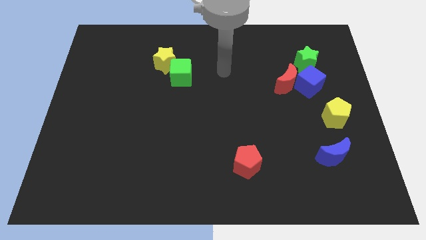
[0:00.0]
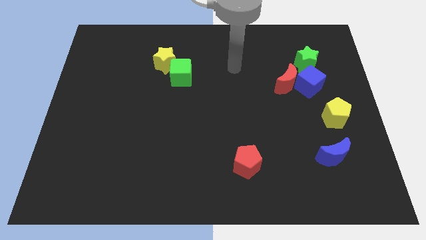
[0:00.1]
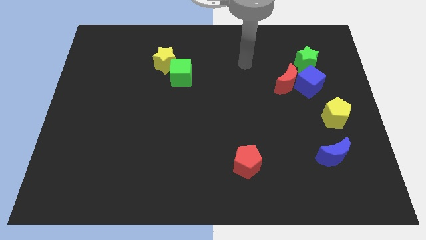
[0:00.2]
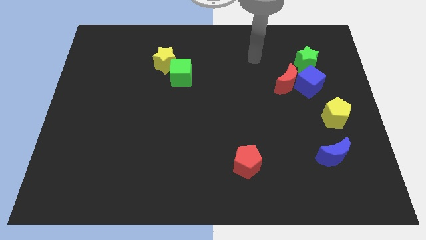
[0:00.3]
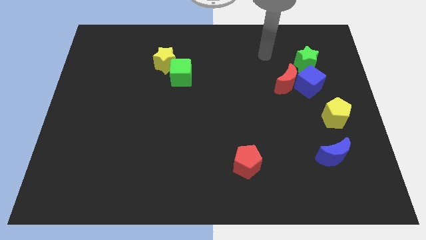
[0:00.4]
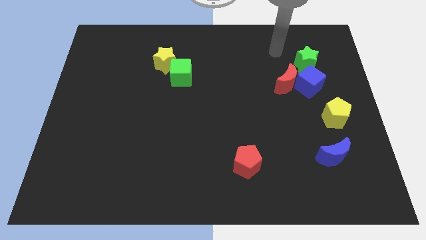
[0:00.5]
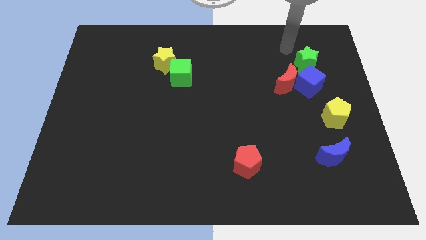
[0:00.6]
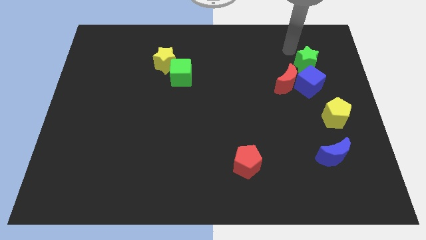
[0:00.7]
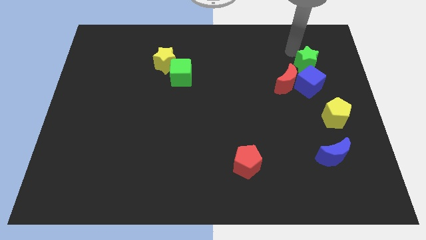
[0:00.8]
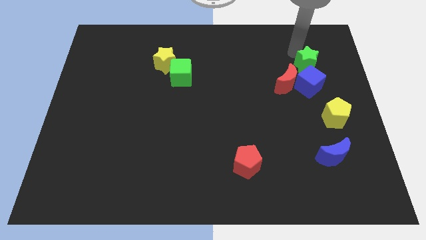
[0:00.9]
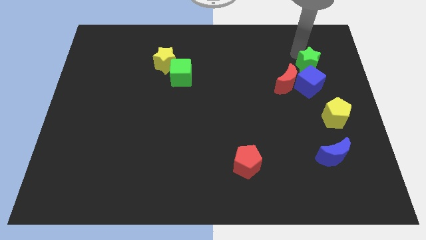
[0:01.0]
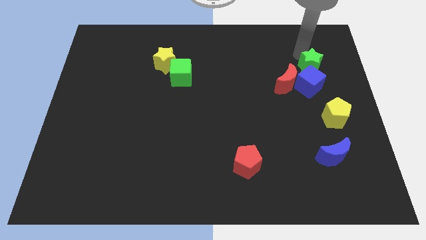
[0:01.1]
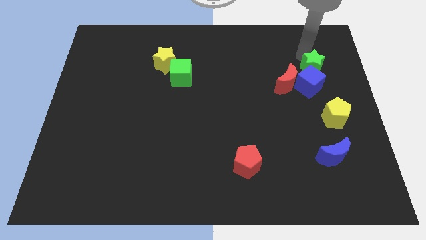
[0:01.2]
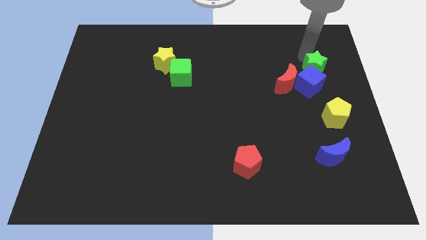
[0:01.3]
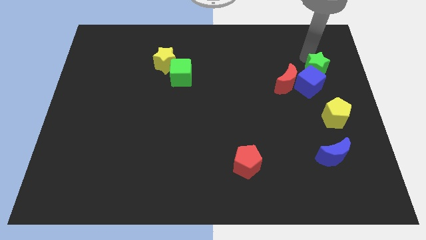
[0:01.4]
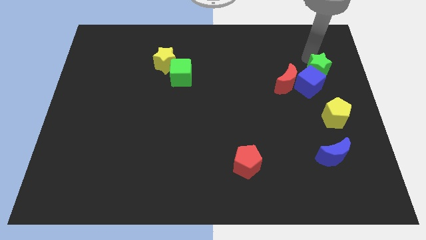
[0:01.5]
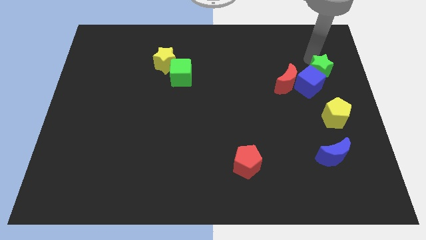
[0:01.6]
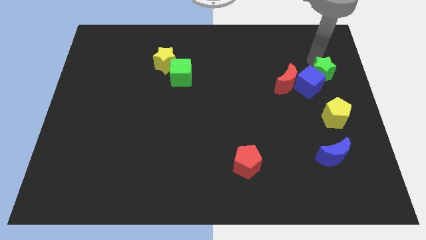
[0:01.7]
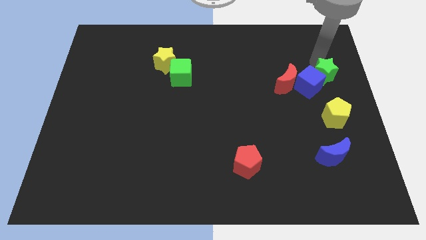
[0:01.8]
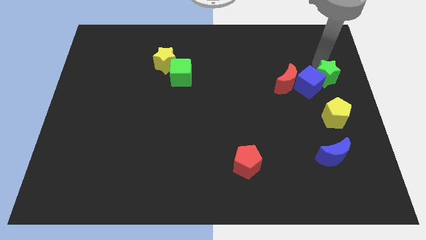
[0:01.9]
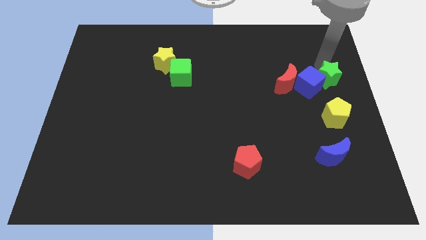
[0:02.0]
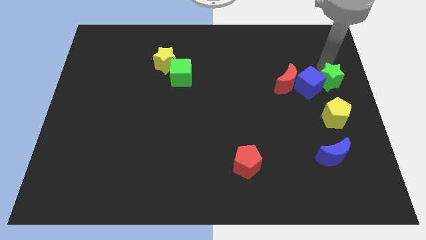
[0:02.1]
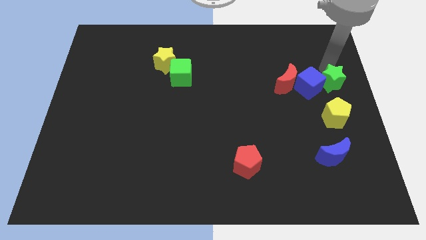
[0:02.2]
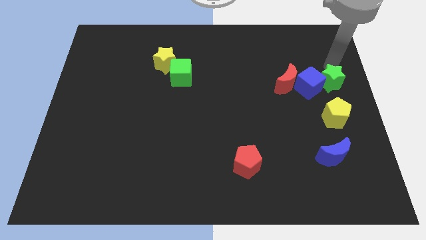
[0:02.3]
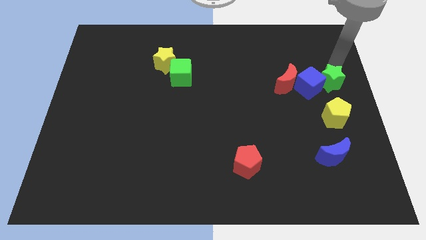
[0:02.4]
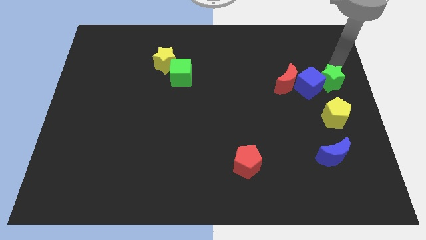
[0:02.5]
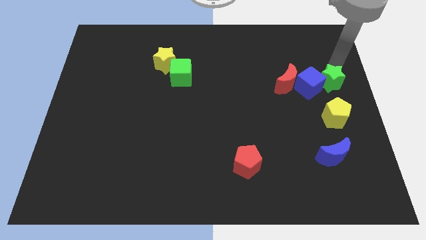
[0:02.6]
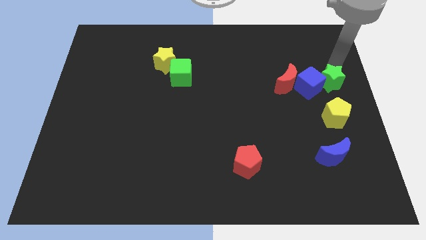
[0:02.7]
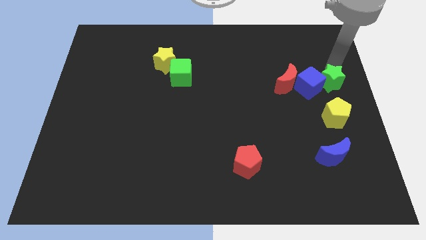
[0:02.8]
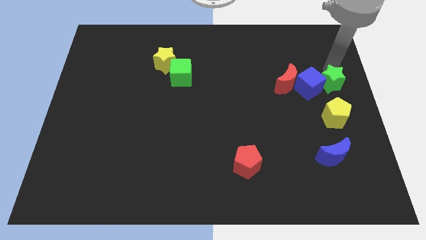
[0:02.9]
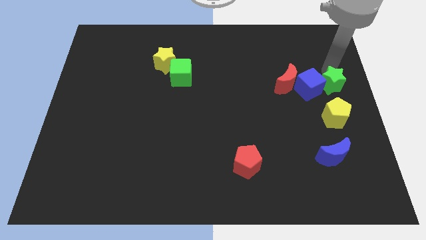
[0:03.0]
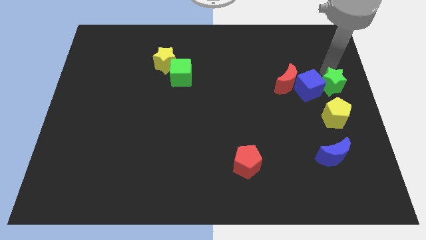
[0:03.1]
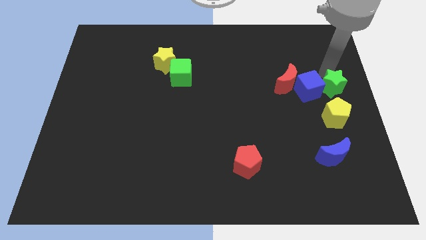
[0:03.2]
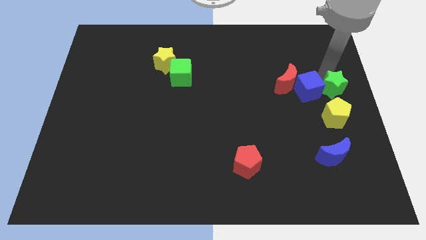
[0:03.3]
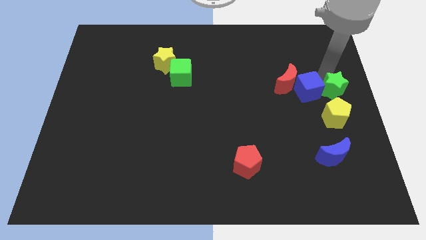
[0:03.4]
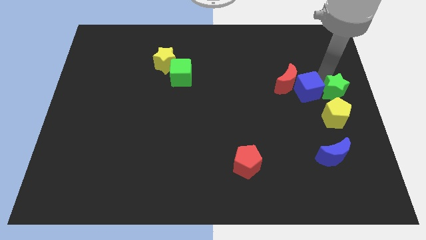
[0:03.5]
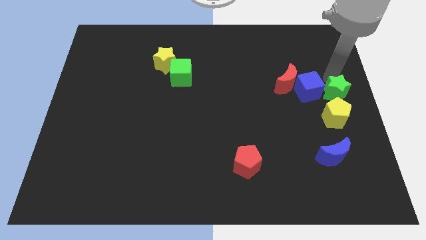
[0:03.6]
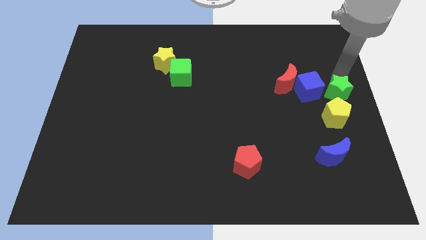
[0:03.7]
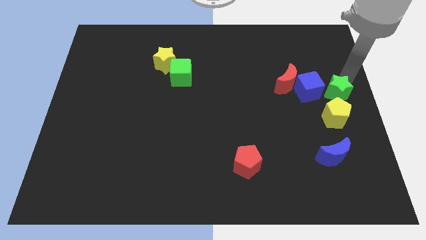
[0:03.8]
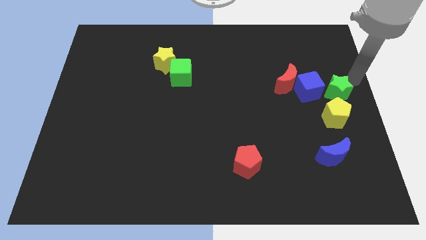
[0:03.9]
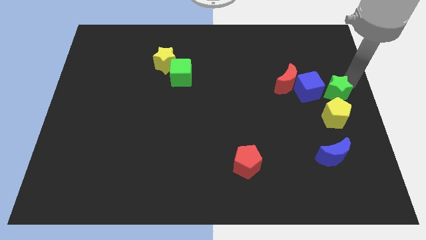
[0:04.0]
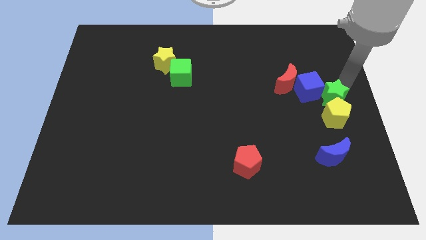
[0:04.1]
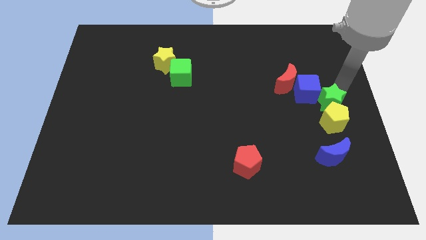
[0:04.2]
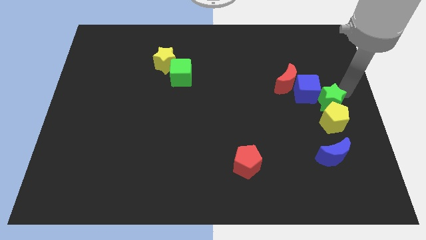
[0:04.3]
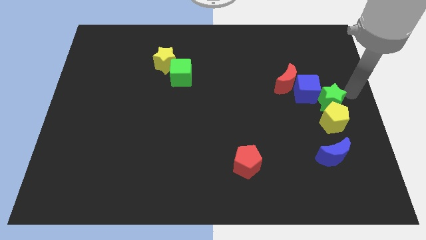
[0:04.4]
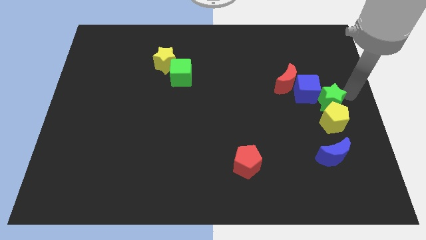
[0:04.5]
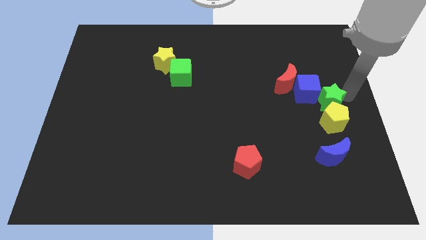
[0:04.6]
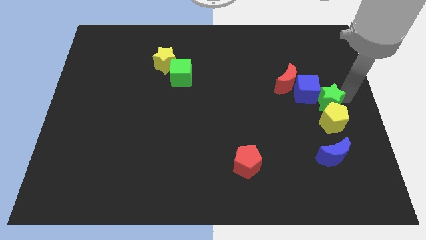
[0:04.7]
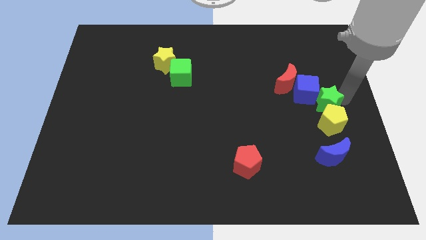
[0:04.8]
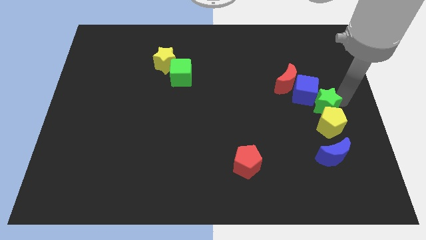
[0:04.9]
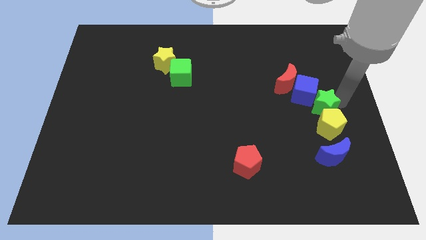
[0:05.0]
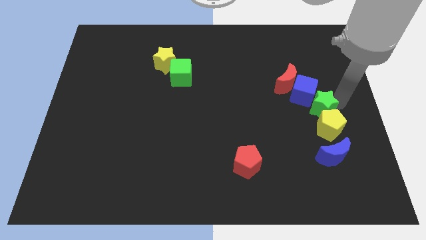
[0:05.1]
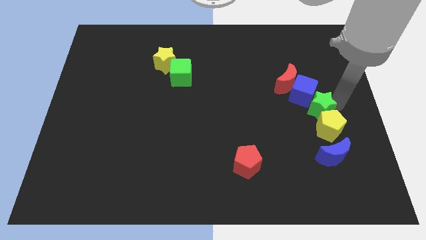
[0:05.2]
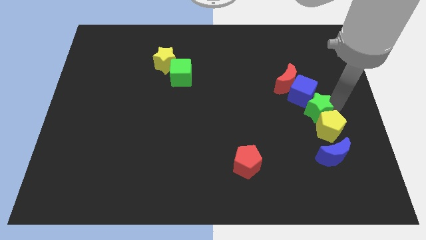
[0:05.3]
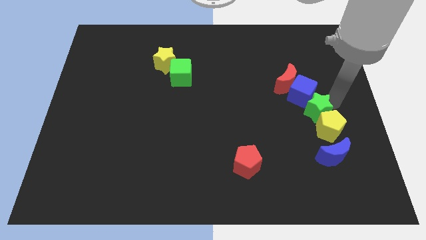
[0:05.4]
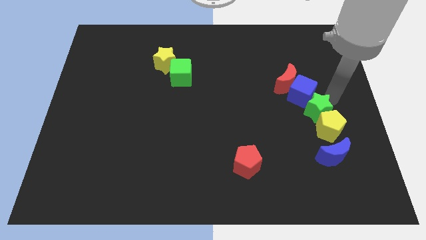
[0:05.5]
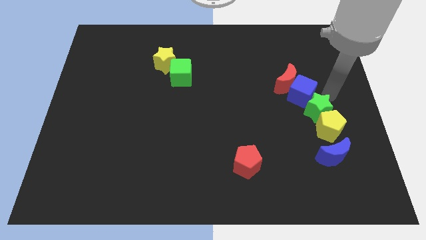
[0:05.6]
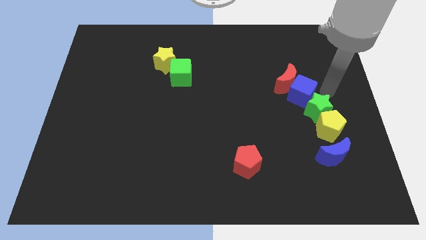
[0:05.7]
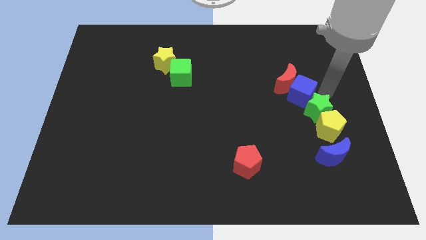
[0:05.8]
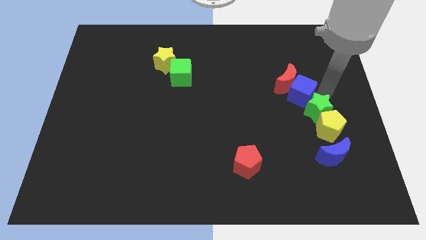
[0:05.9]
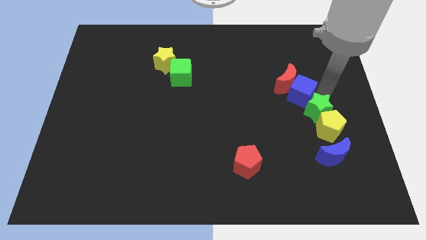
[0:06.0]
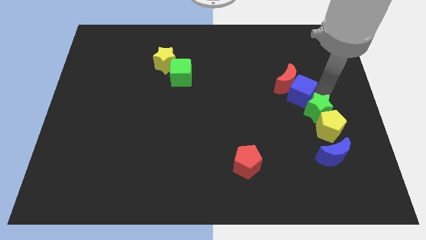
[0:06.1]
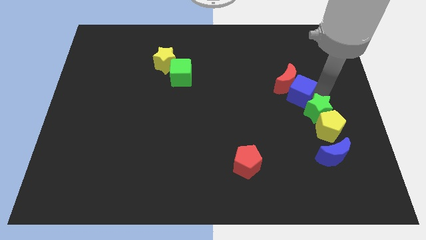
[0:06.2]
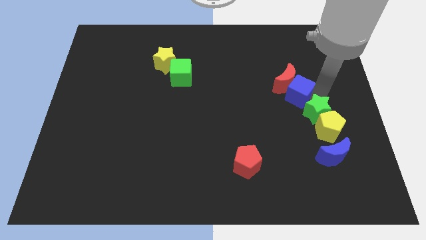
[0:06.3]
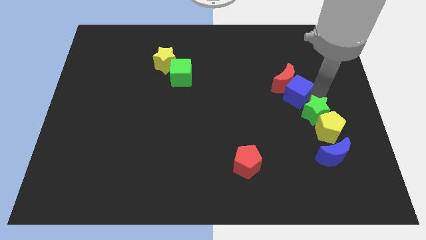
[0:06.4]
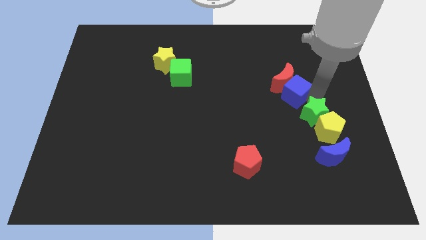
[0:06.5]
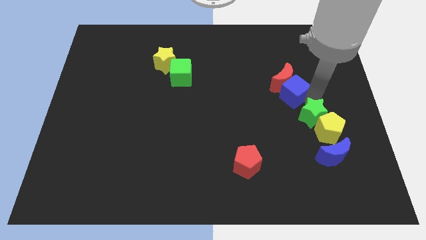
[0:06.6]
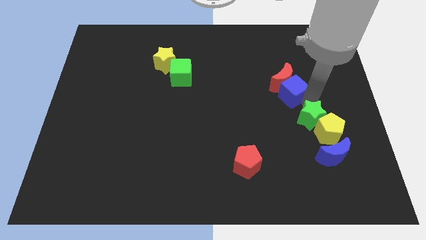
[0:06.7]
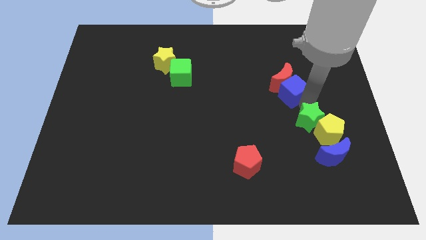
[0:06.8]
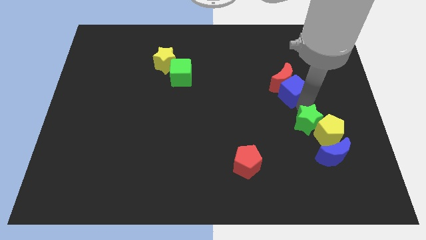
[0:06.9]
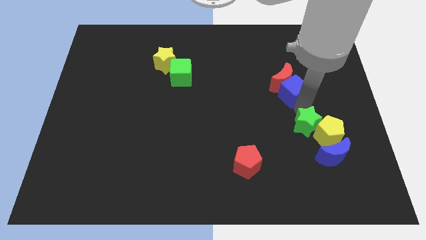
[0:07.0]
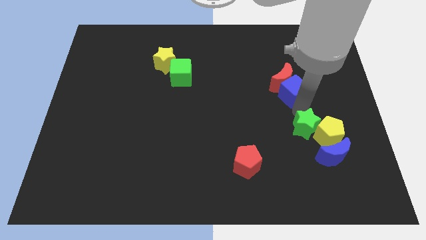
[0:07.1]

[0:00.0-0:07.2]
push the green star down

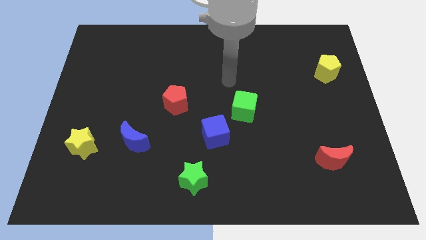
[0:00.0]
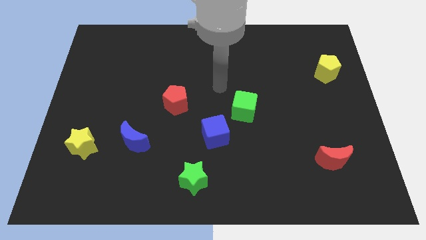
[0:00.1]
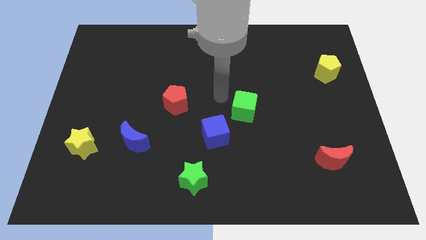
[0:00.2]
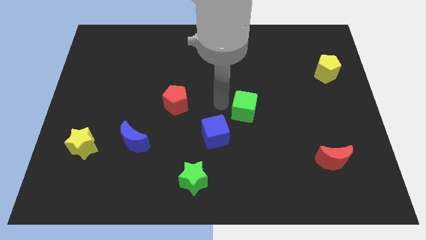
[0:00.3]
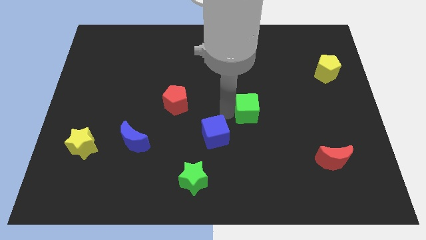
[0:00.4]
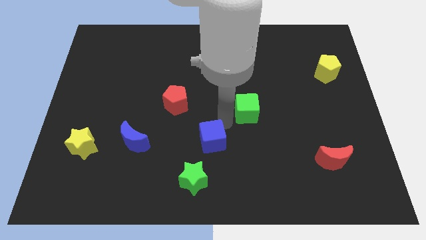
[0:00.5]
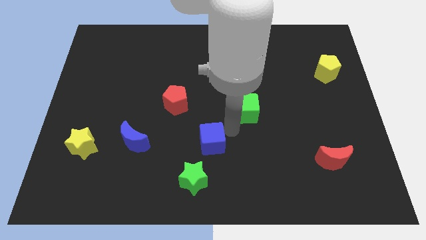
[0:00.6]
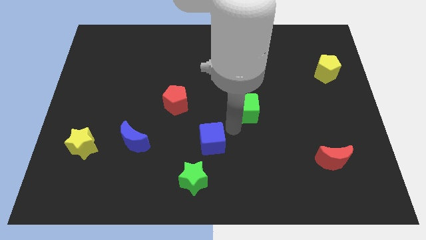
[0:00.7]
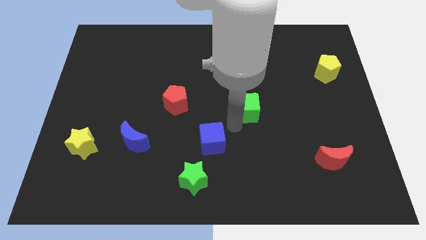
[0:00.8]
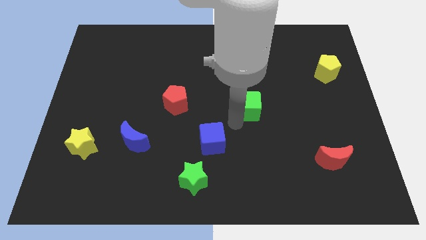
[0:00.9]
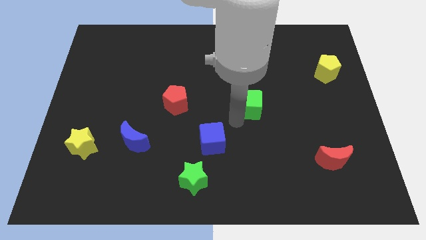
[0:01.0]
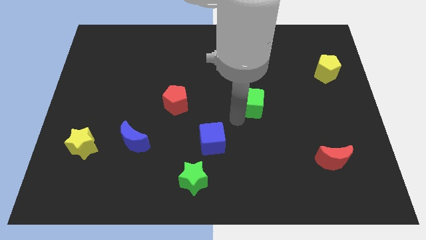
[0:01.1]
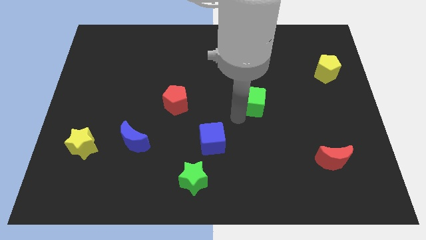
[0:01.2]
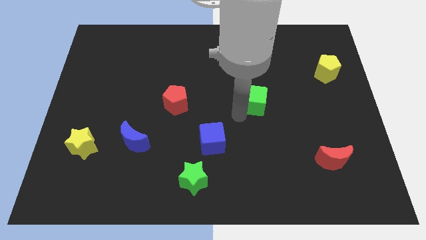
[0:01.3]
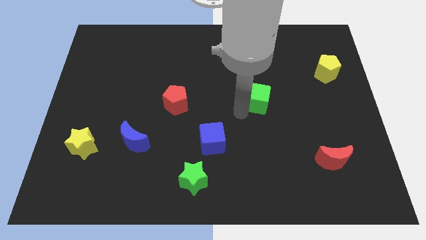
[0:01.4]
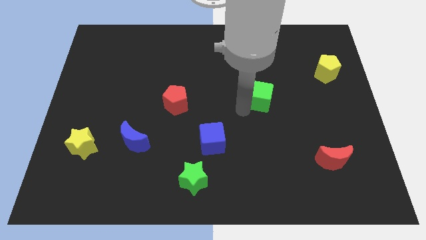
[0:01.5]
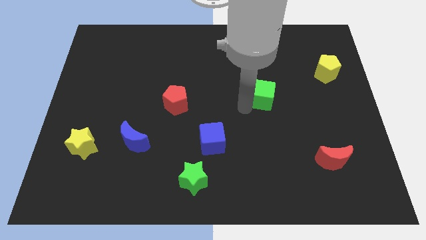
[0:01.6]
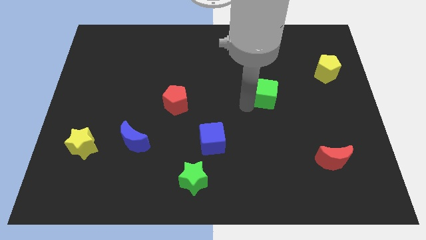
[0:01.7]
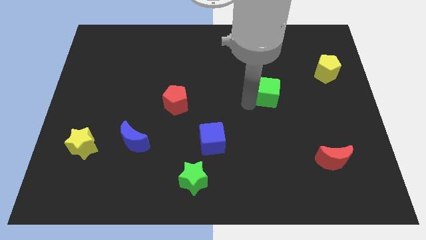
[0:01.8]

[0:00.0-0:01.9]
push the green cube upwards and to the right diagonally slightly
